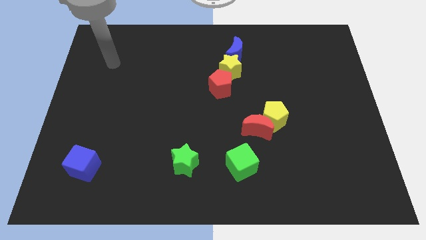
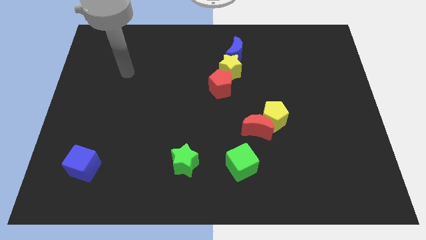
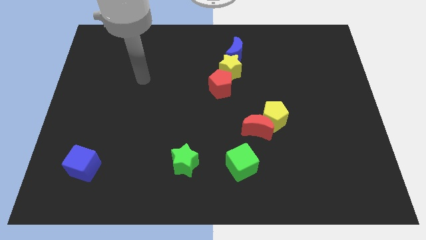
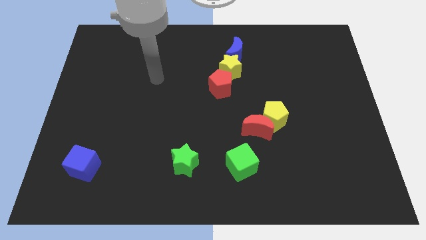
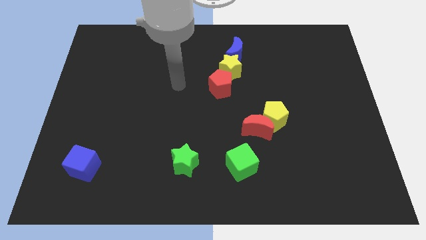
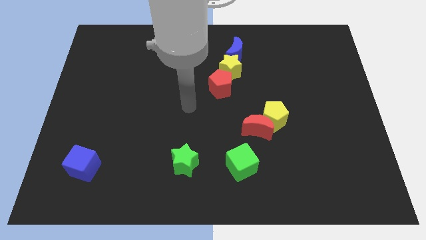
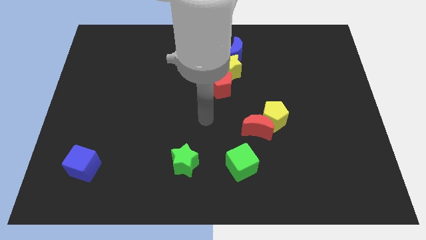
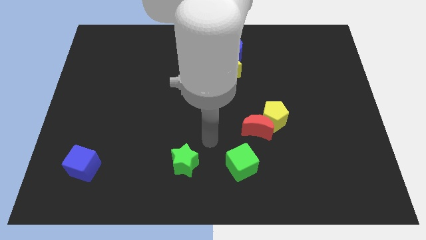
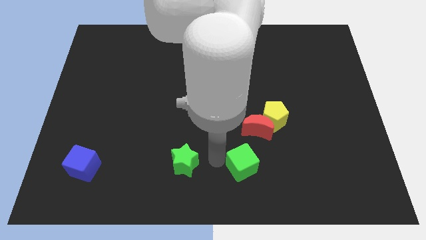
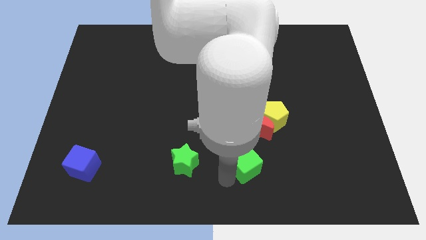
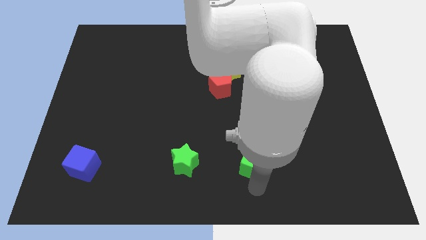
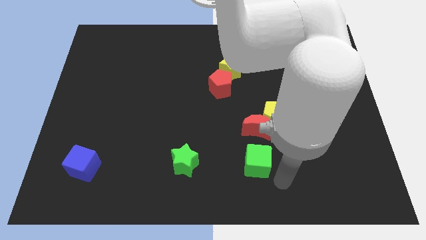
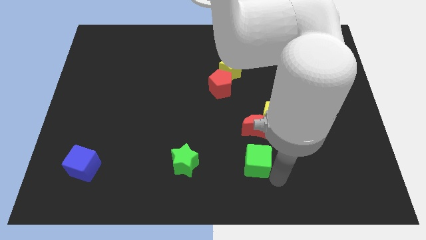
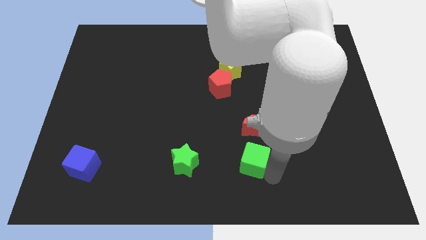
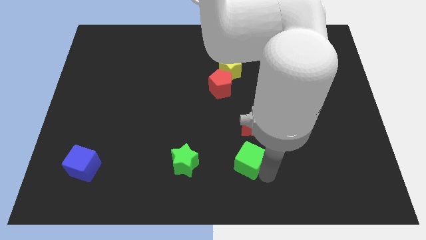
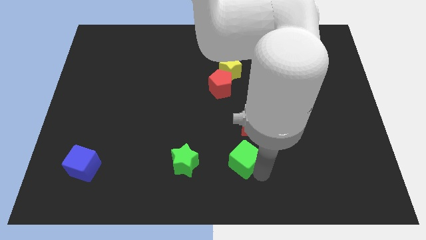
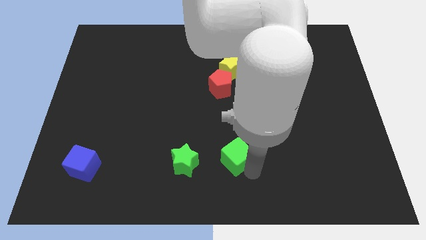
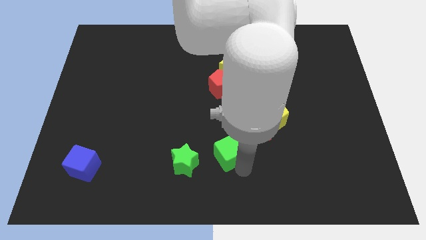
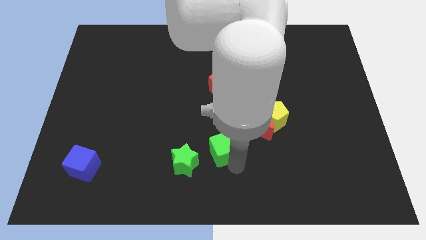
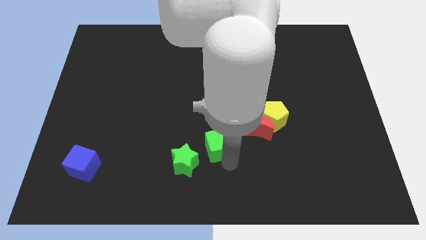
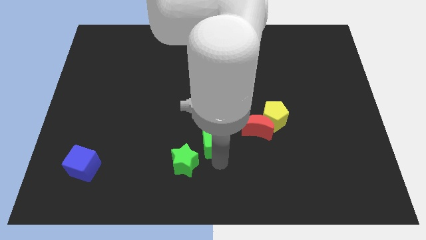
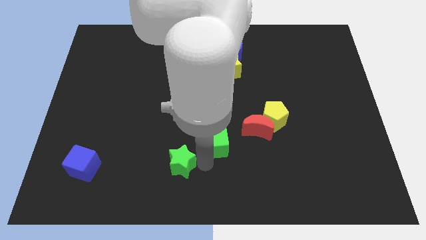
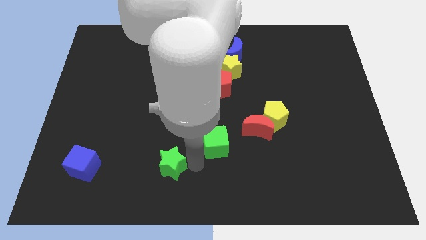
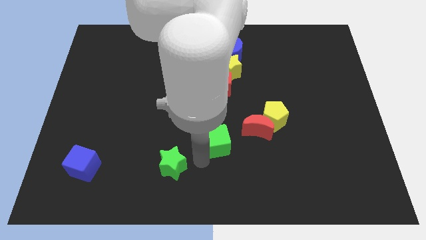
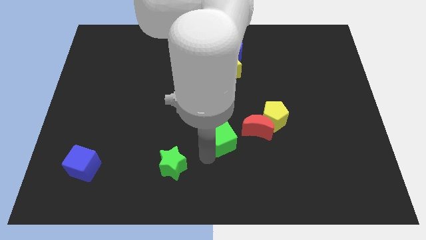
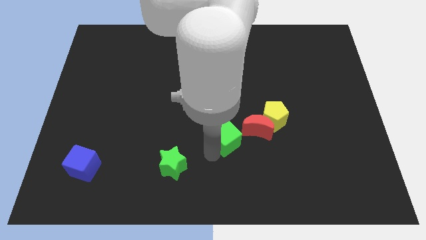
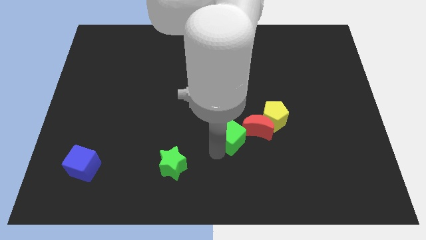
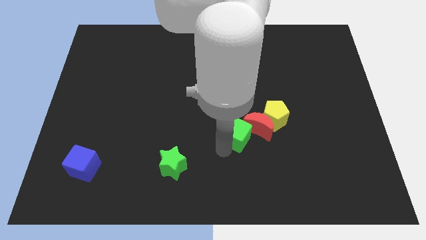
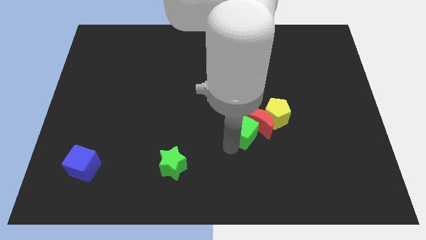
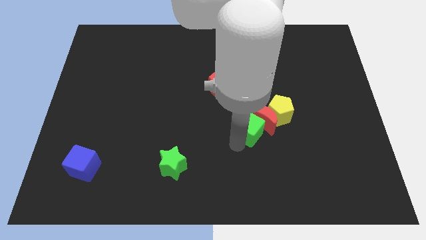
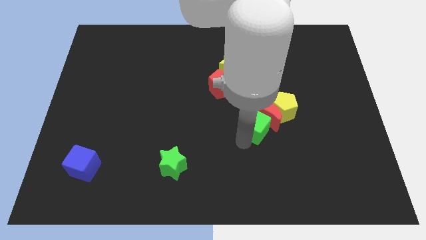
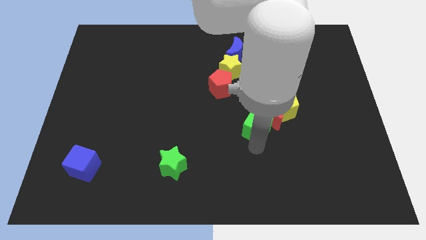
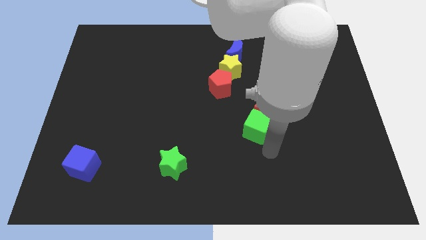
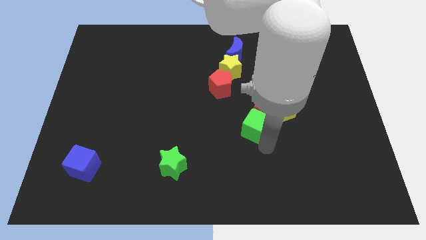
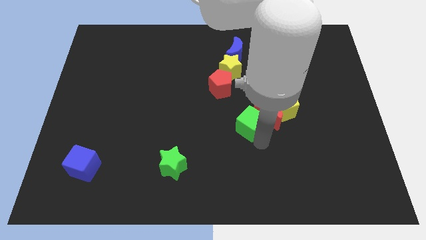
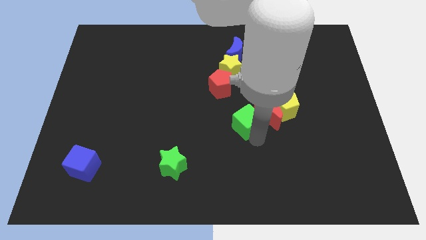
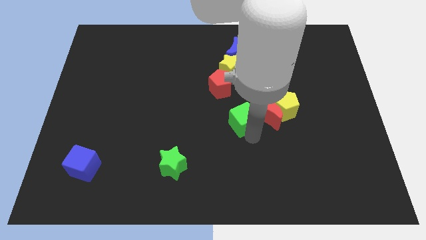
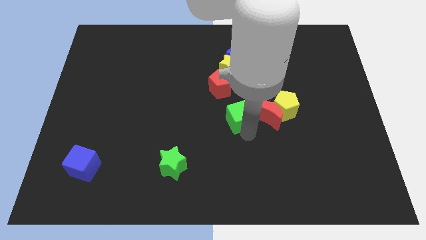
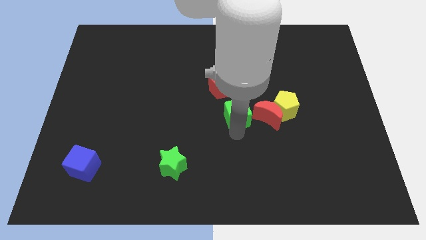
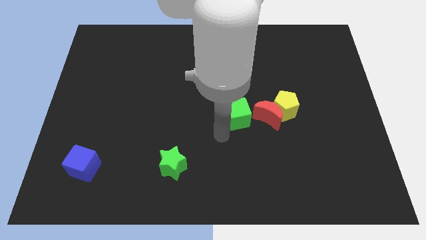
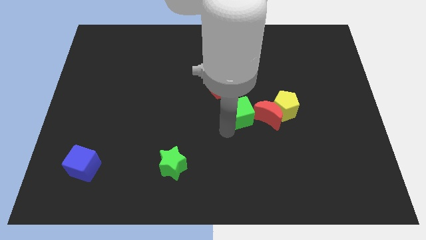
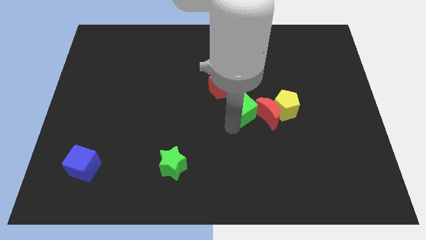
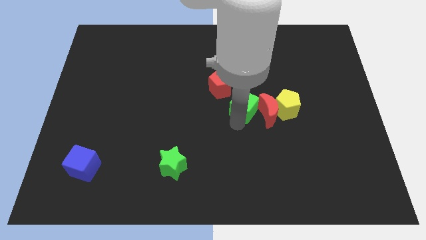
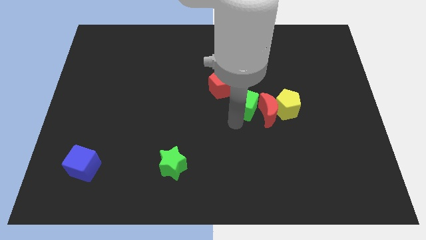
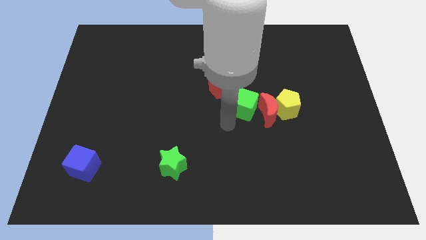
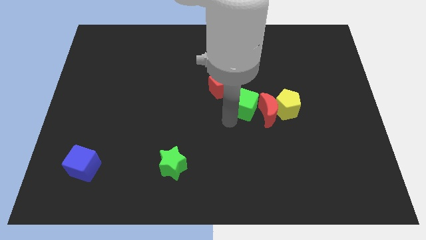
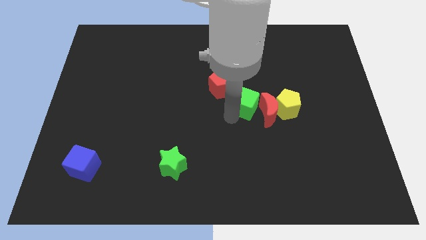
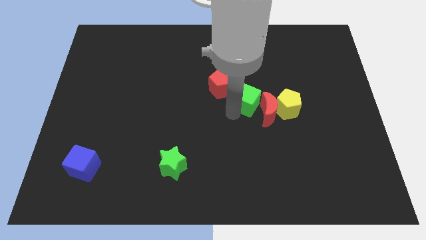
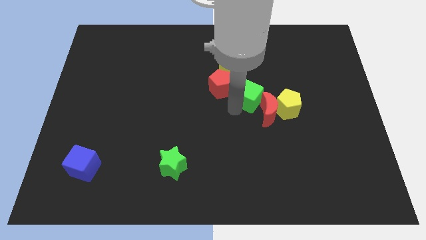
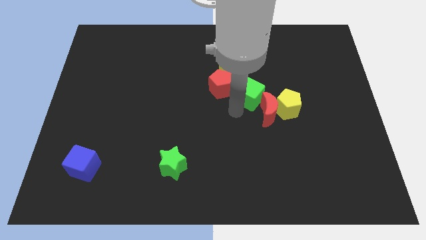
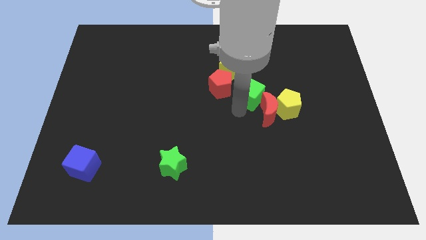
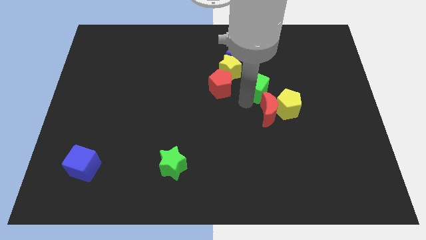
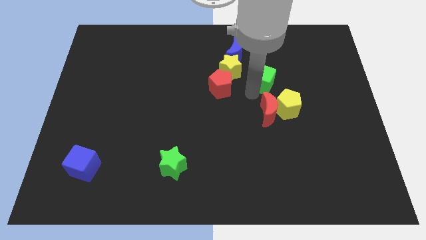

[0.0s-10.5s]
put the green cube just right of the yellow star

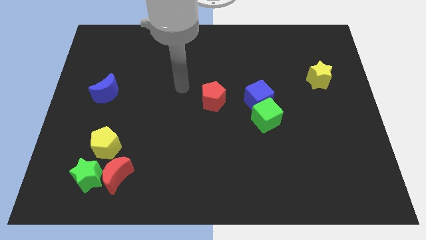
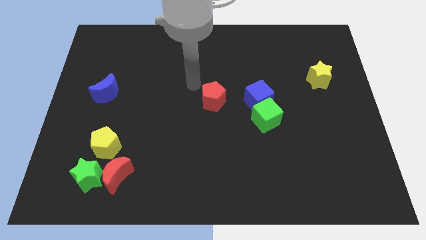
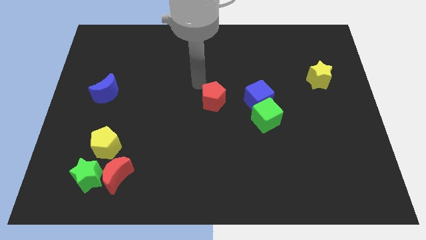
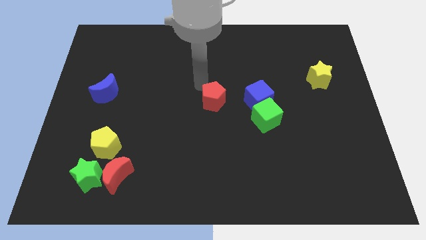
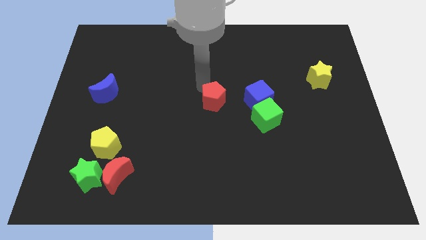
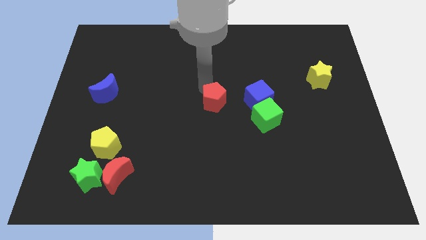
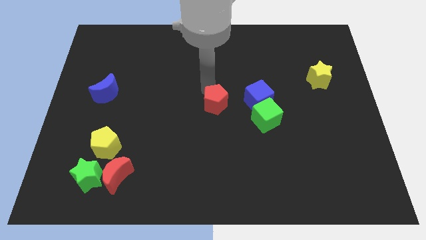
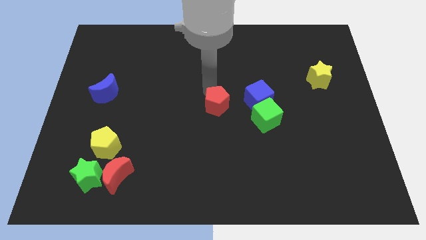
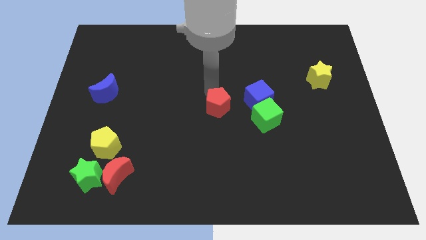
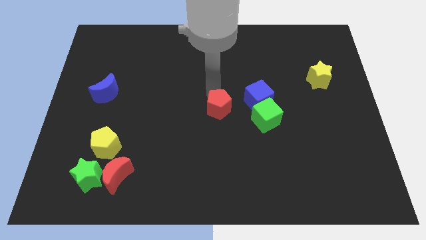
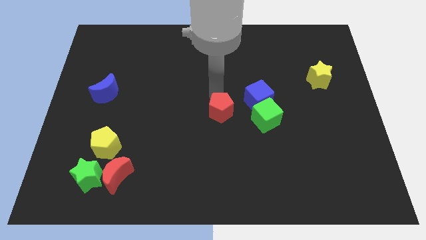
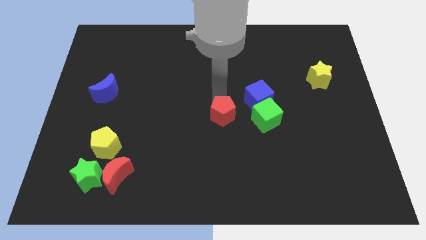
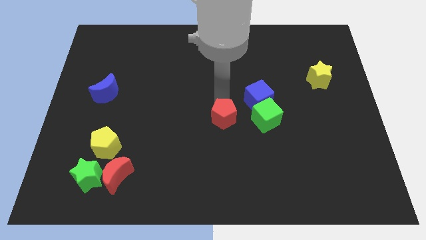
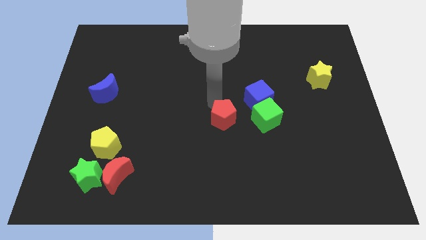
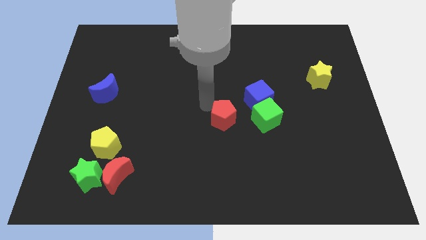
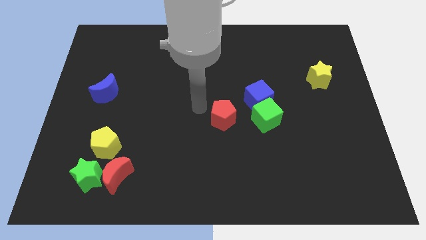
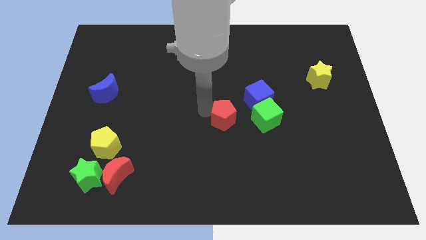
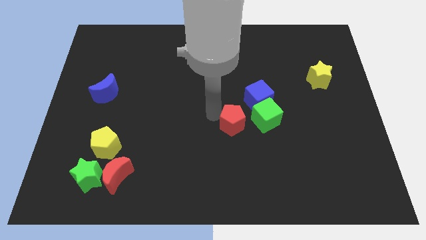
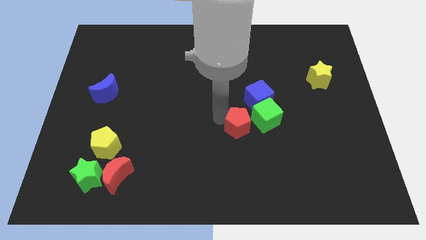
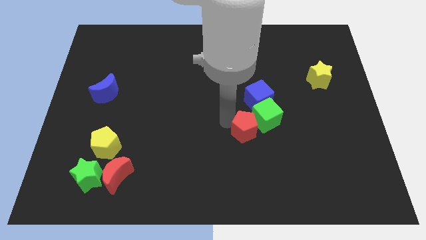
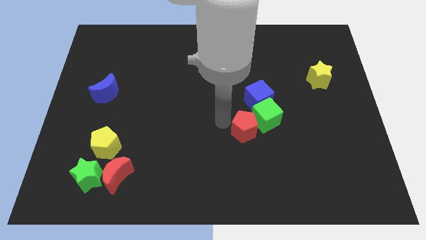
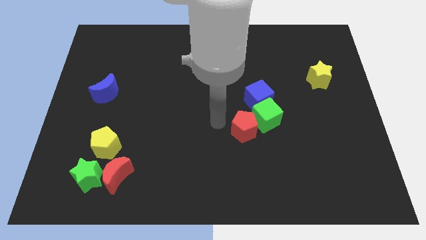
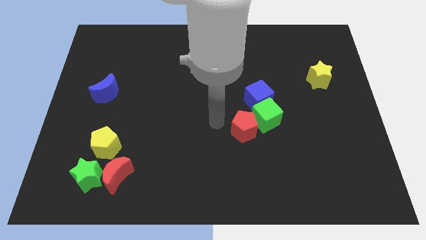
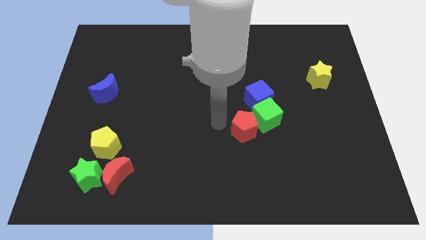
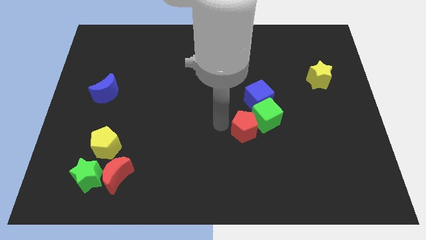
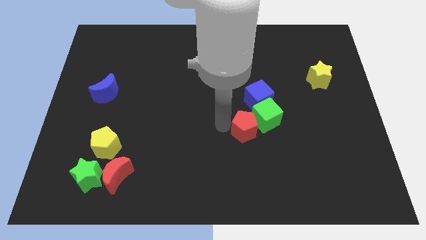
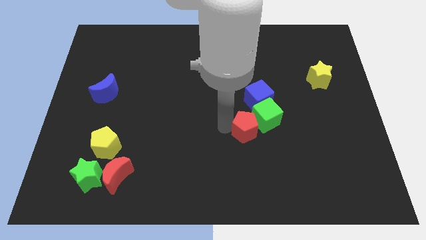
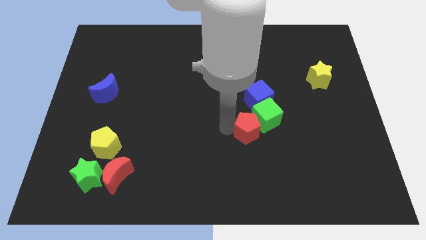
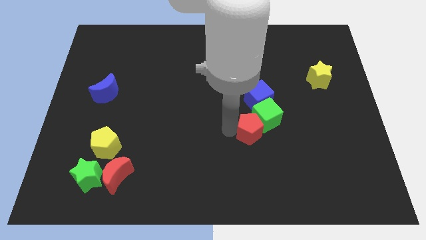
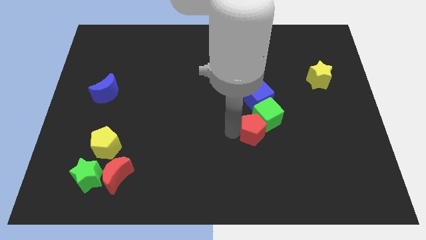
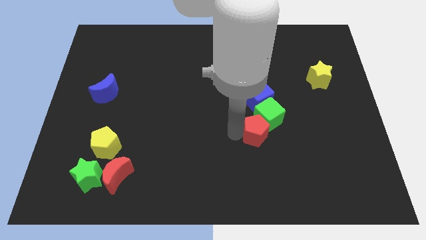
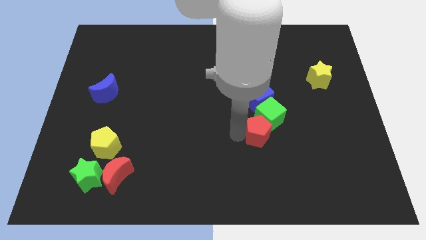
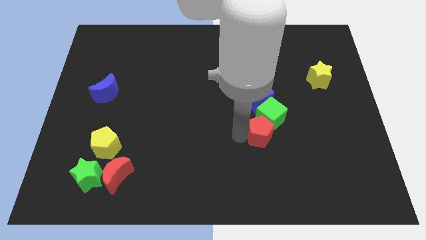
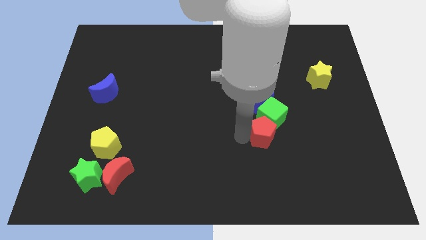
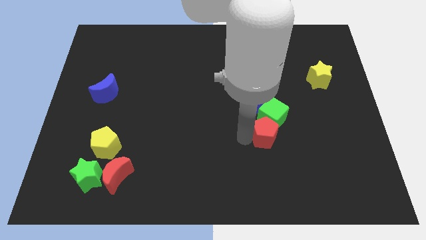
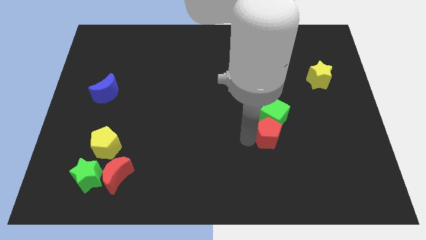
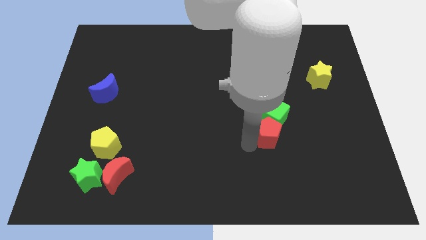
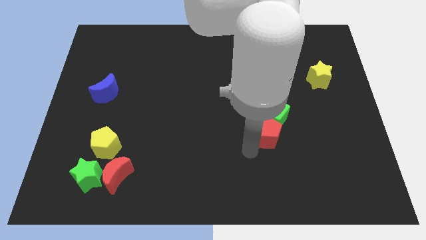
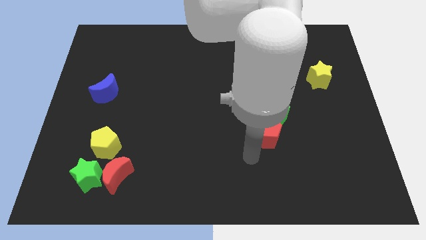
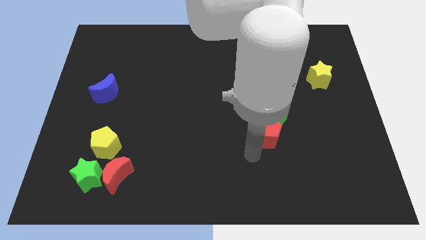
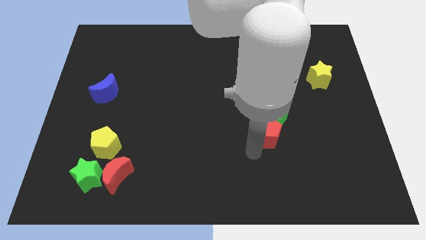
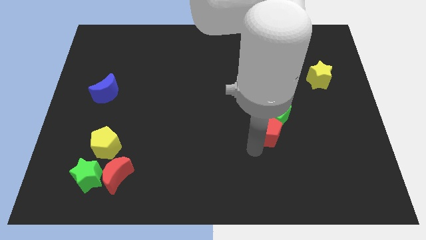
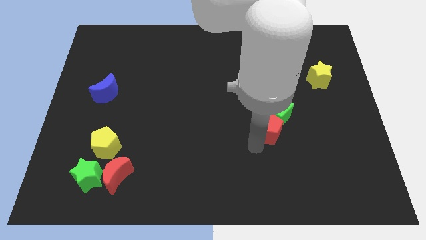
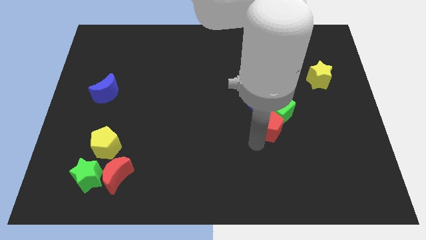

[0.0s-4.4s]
move the red pentagon diagonally down and to the right of the blue cube
